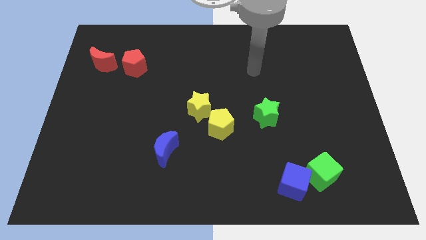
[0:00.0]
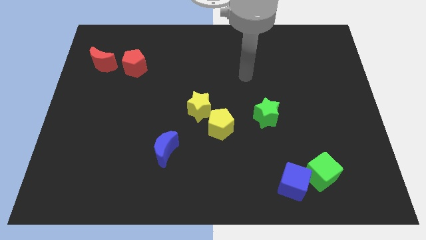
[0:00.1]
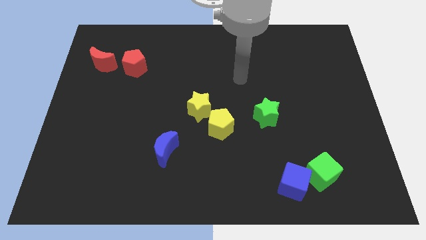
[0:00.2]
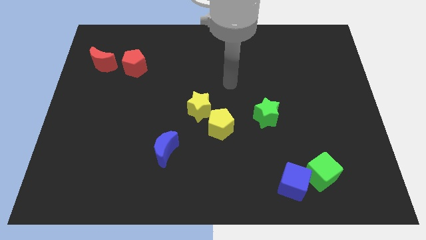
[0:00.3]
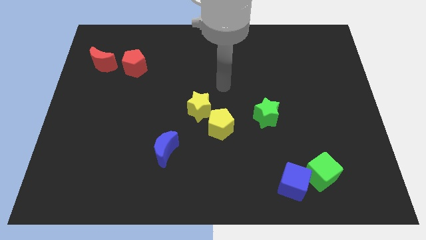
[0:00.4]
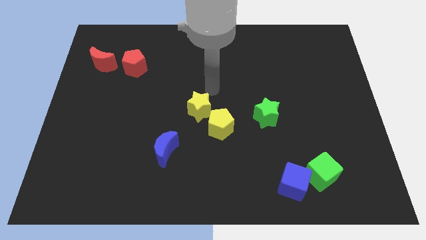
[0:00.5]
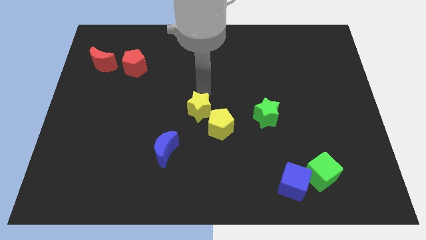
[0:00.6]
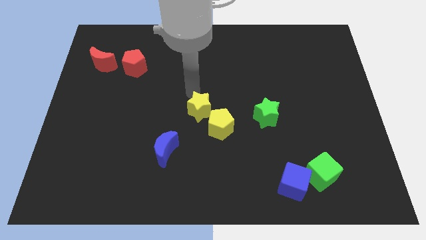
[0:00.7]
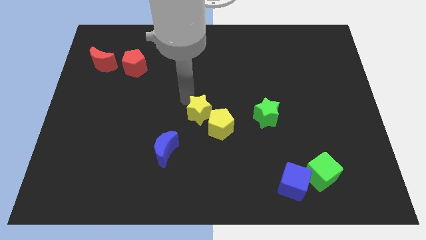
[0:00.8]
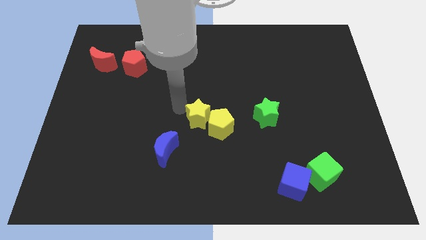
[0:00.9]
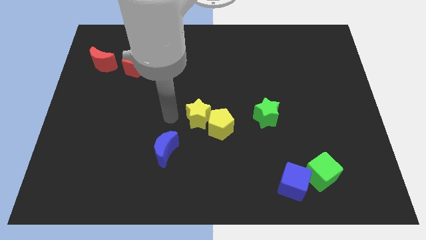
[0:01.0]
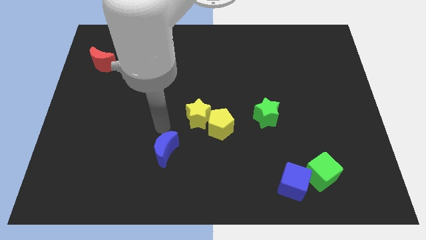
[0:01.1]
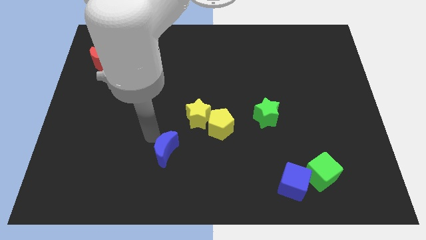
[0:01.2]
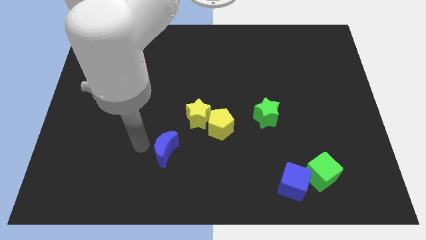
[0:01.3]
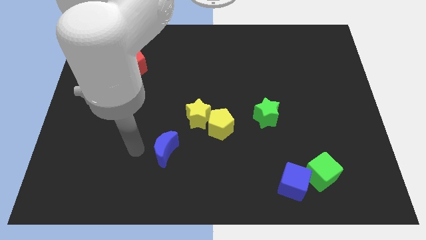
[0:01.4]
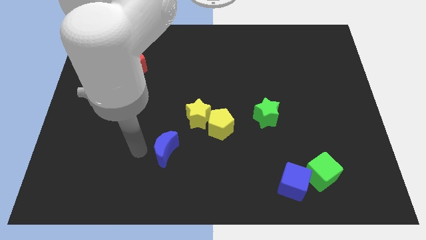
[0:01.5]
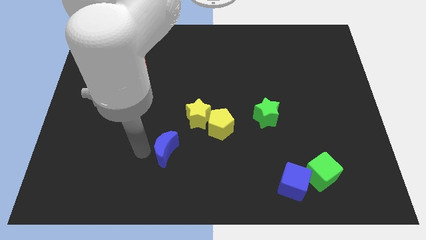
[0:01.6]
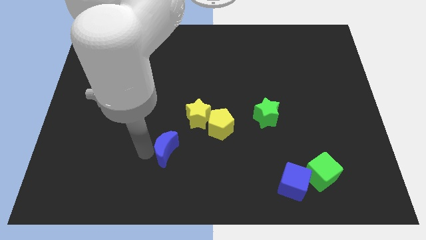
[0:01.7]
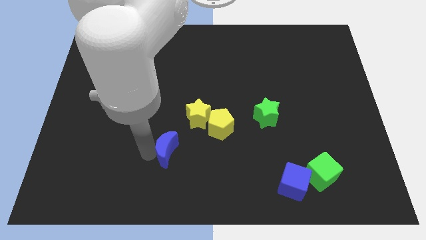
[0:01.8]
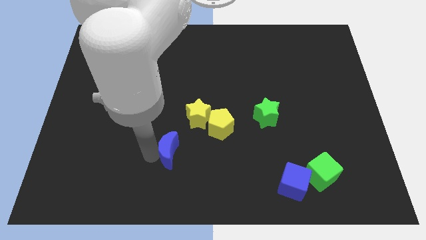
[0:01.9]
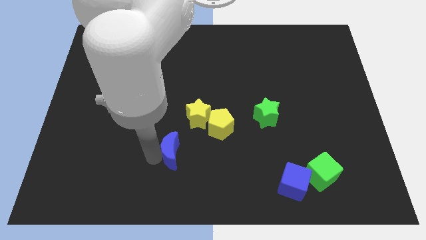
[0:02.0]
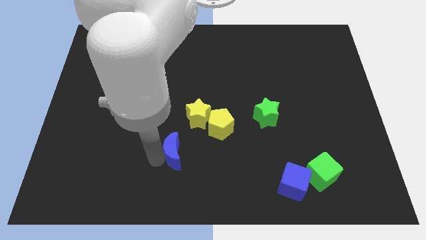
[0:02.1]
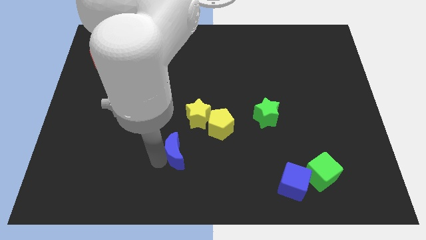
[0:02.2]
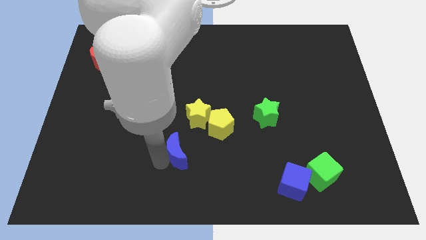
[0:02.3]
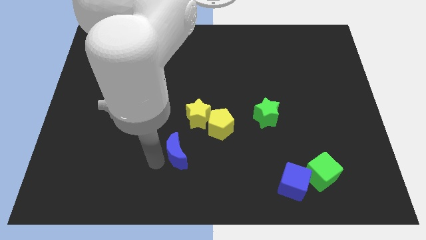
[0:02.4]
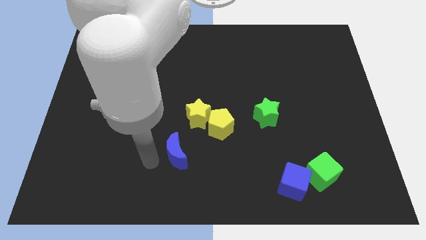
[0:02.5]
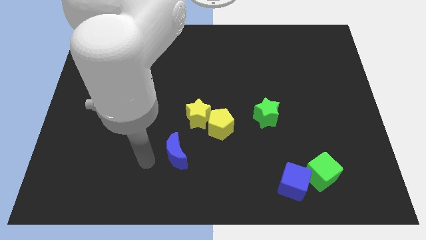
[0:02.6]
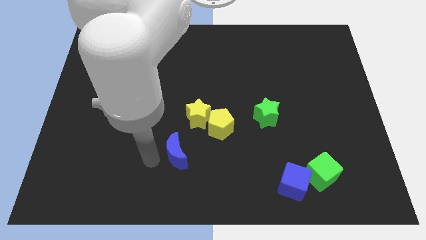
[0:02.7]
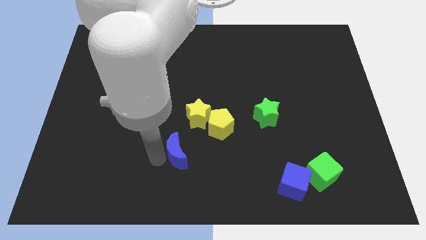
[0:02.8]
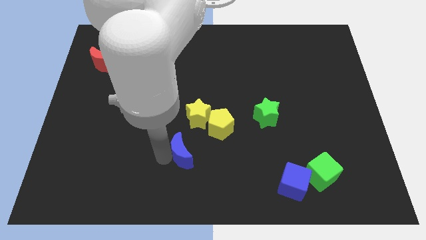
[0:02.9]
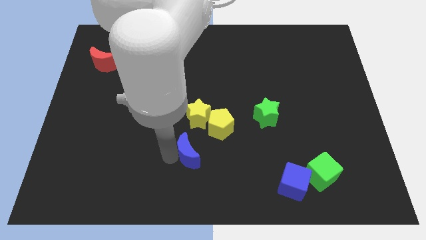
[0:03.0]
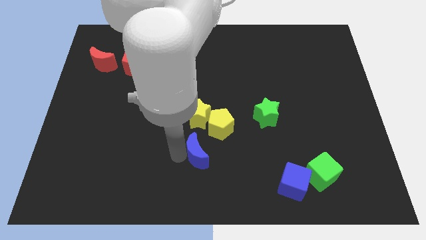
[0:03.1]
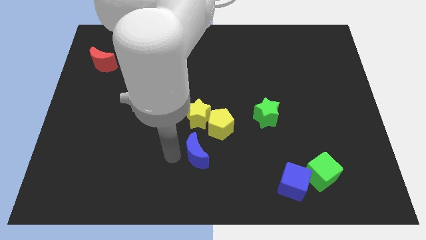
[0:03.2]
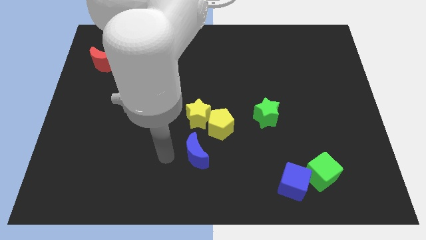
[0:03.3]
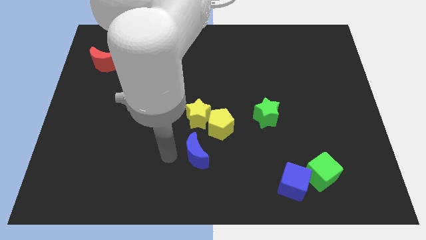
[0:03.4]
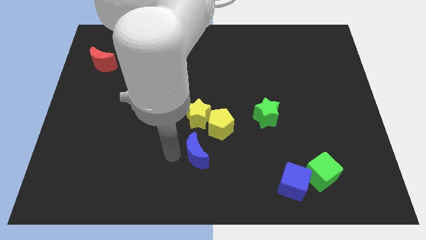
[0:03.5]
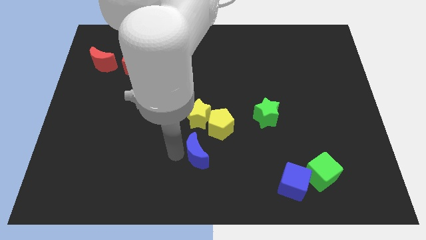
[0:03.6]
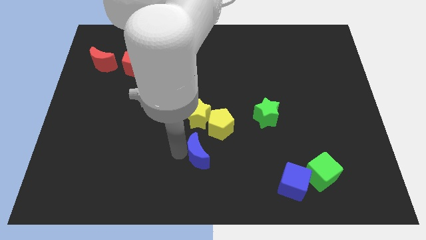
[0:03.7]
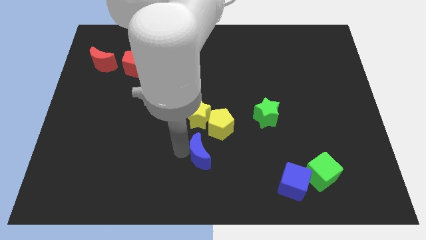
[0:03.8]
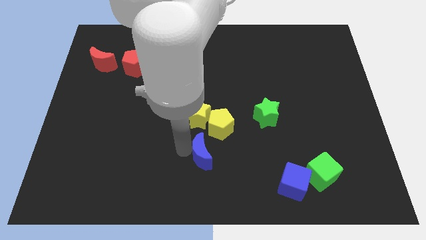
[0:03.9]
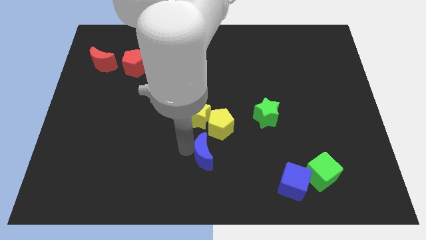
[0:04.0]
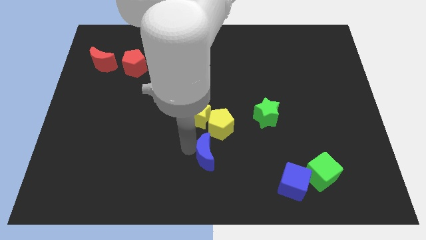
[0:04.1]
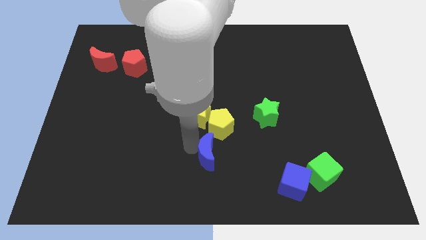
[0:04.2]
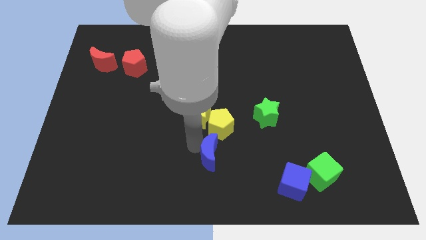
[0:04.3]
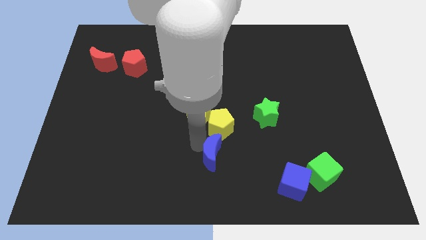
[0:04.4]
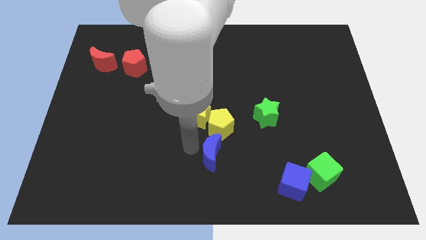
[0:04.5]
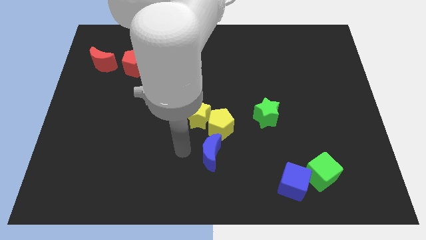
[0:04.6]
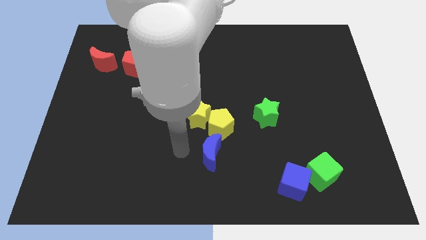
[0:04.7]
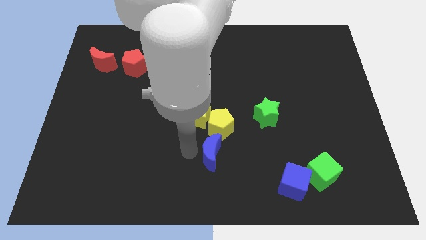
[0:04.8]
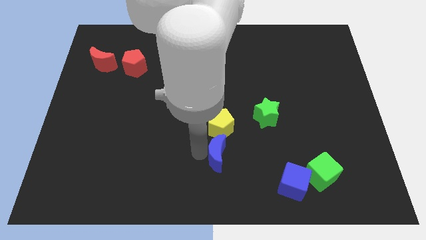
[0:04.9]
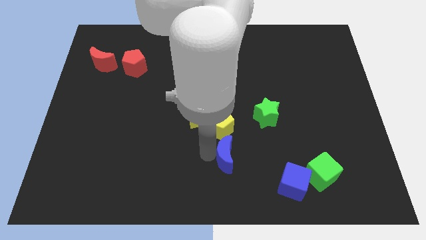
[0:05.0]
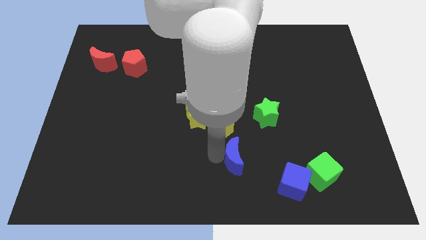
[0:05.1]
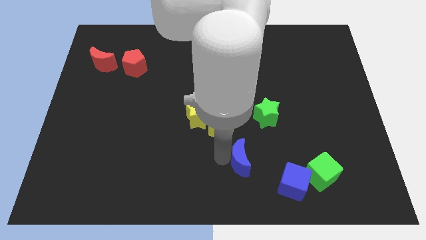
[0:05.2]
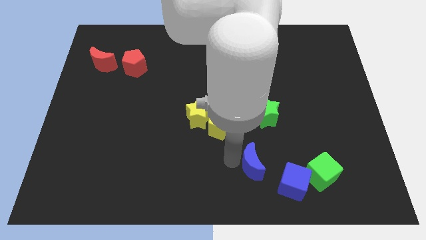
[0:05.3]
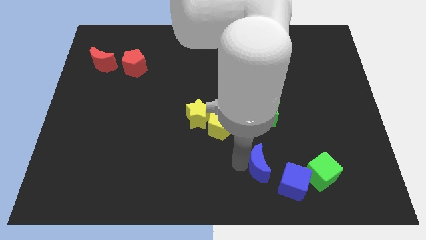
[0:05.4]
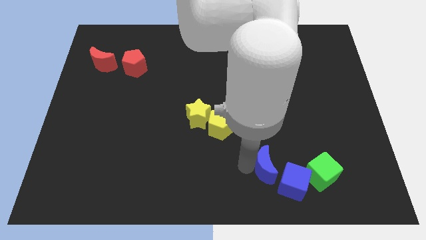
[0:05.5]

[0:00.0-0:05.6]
push the blue moon to the right

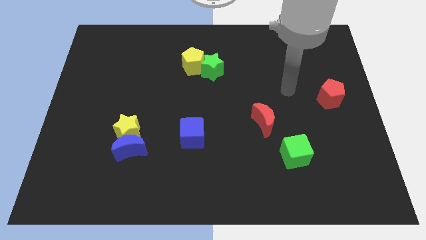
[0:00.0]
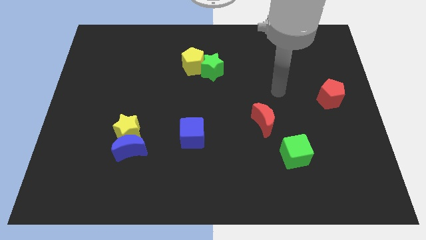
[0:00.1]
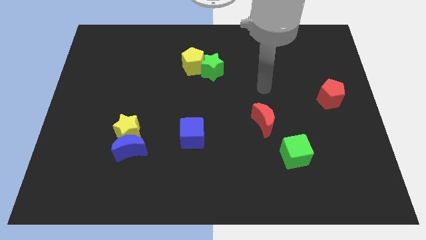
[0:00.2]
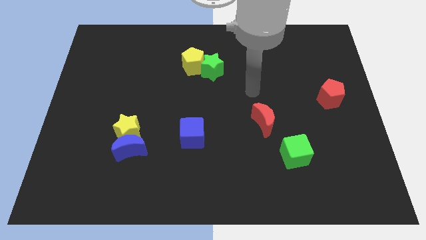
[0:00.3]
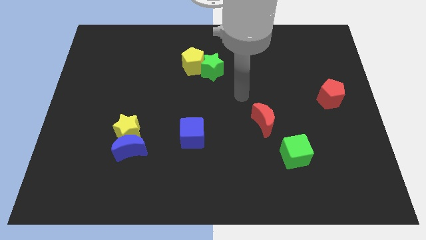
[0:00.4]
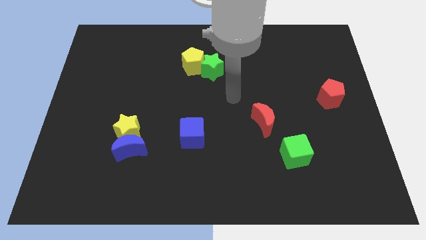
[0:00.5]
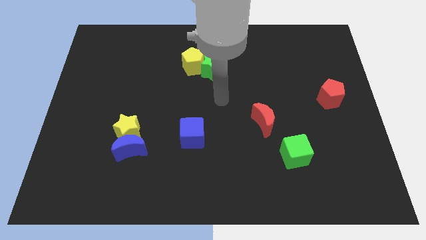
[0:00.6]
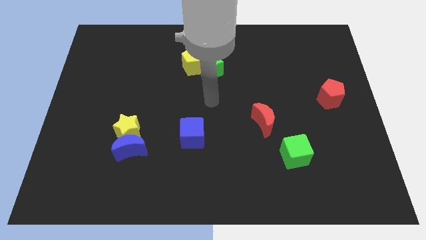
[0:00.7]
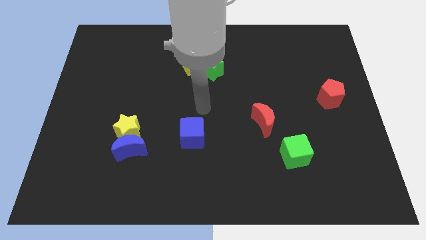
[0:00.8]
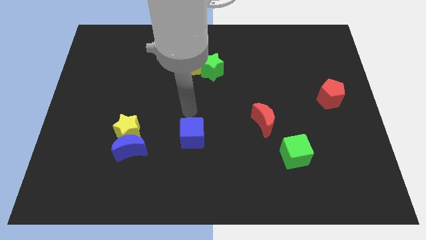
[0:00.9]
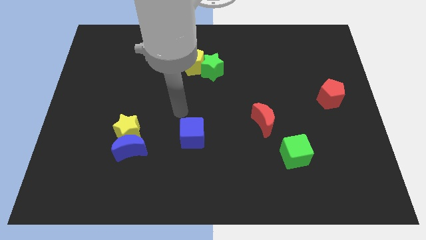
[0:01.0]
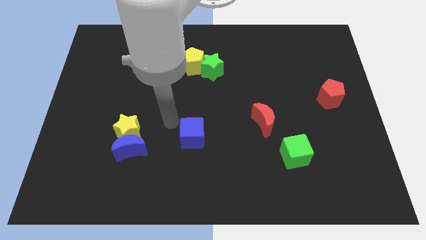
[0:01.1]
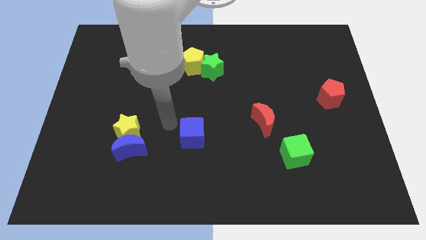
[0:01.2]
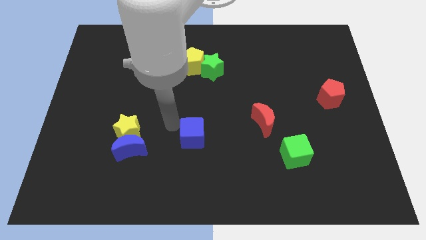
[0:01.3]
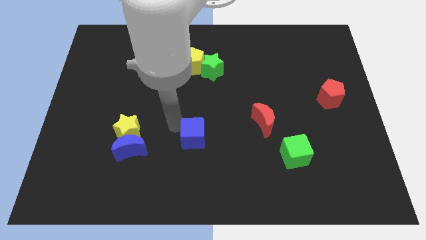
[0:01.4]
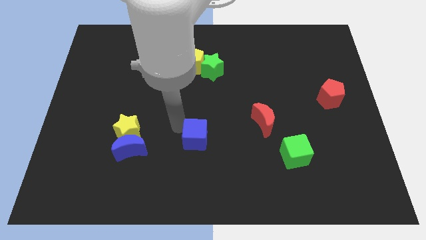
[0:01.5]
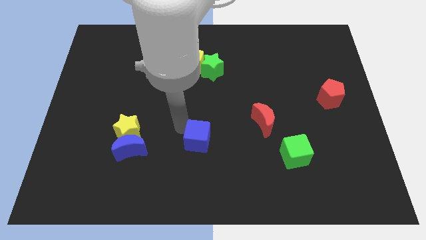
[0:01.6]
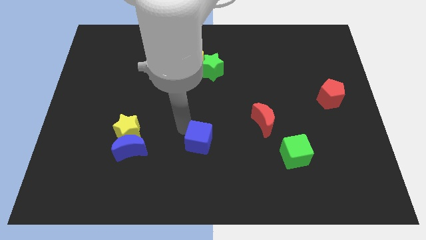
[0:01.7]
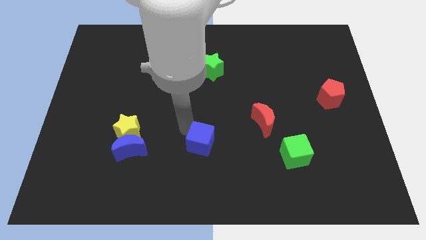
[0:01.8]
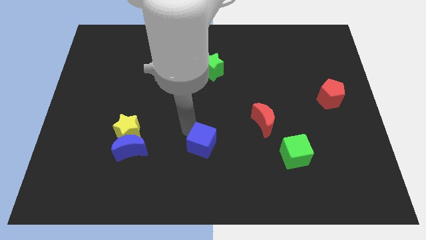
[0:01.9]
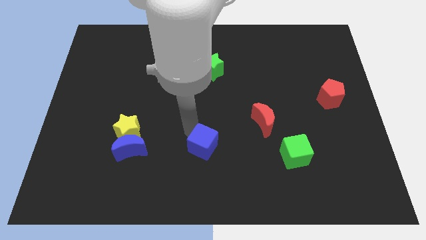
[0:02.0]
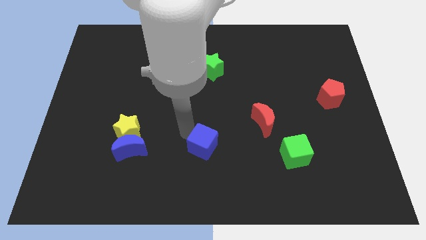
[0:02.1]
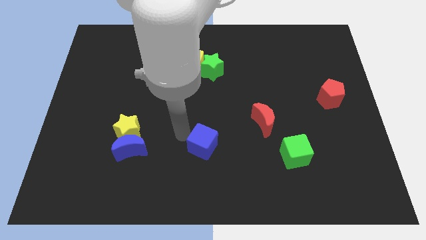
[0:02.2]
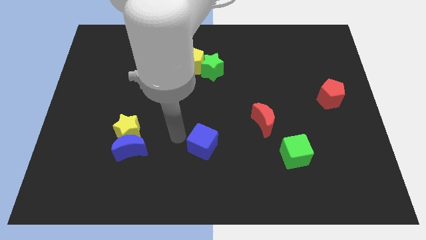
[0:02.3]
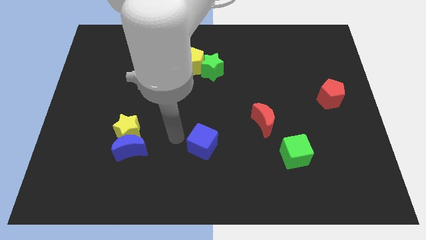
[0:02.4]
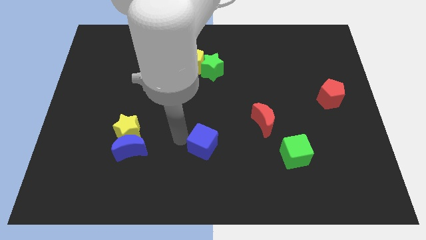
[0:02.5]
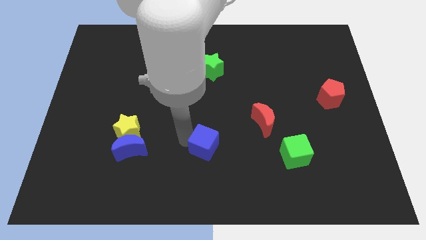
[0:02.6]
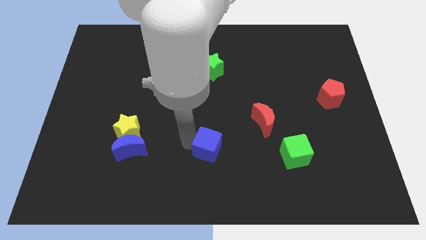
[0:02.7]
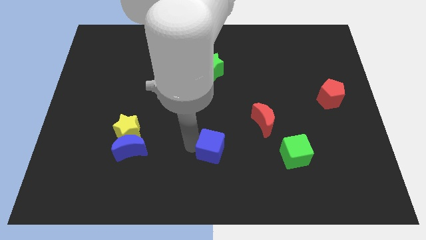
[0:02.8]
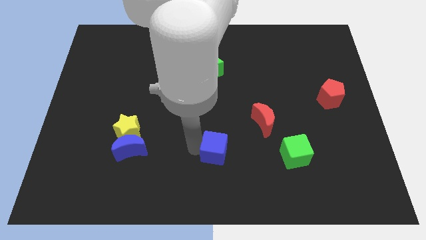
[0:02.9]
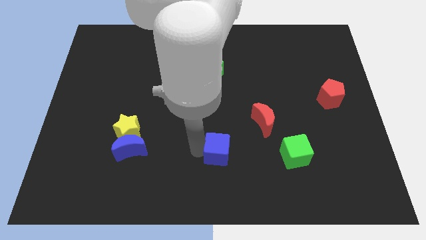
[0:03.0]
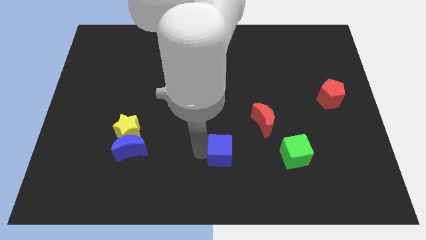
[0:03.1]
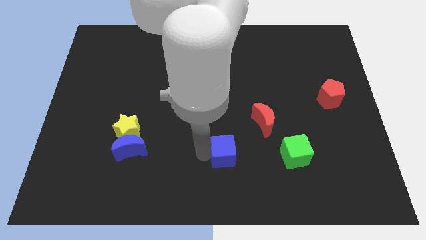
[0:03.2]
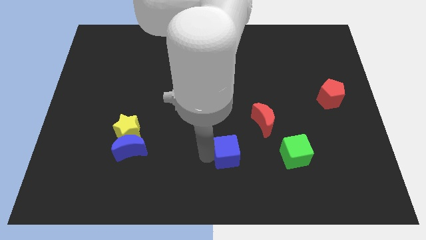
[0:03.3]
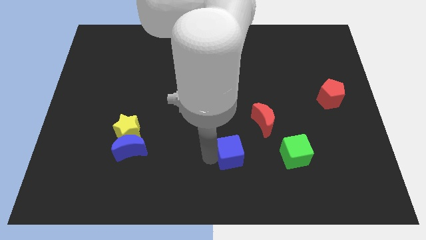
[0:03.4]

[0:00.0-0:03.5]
move the blue cube to the right slightly
